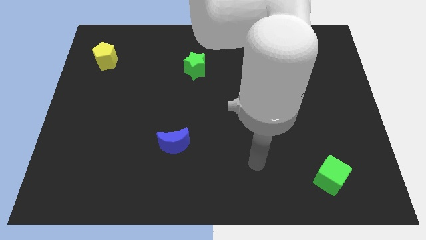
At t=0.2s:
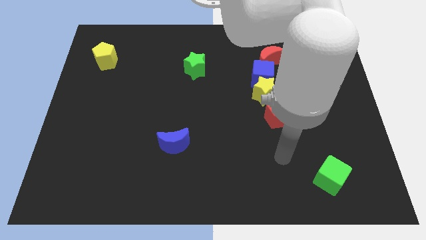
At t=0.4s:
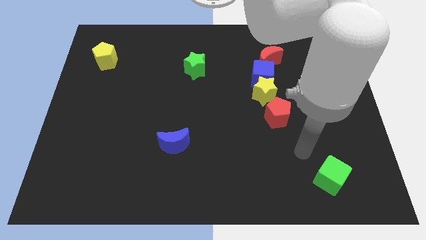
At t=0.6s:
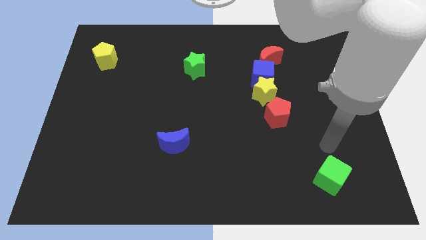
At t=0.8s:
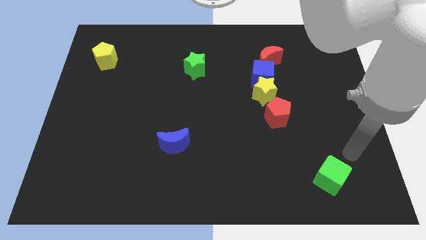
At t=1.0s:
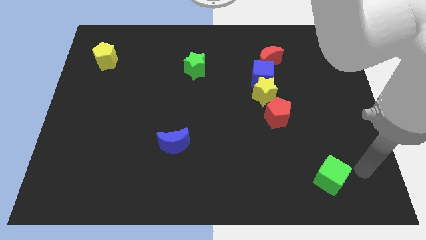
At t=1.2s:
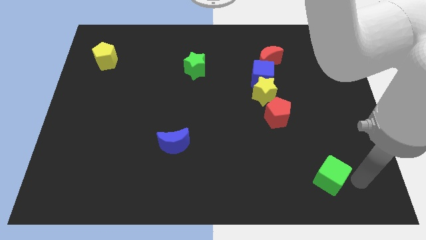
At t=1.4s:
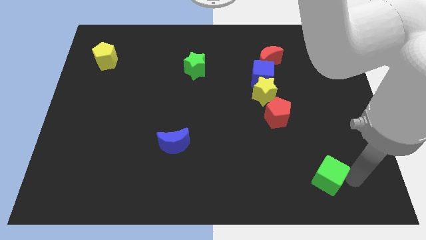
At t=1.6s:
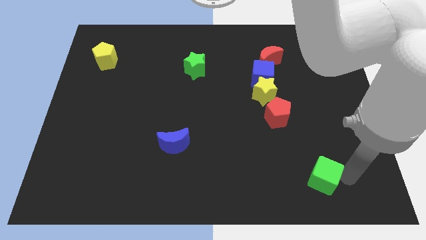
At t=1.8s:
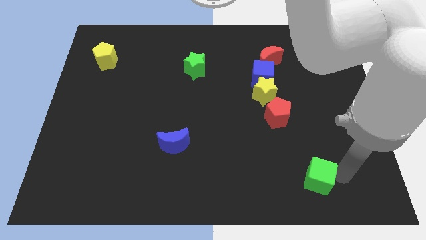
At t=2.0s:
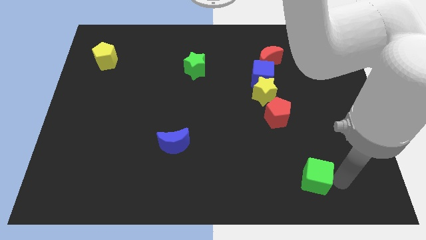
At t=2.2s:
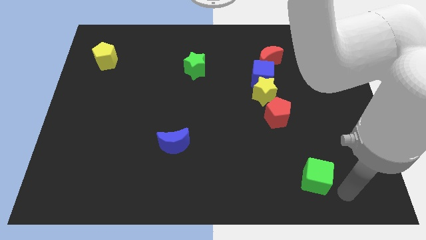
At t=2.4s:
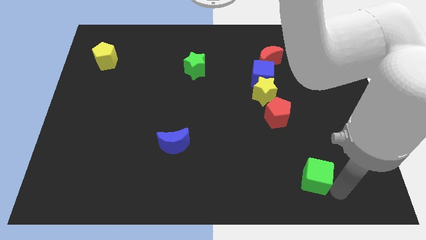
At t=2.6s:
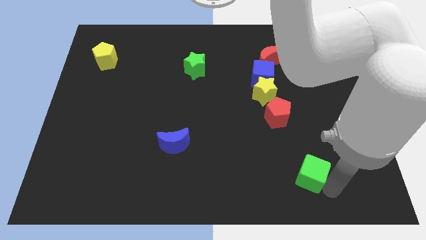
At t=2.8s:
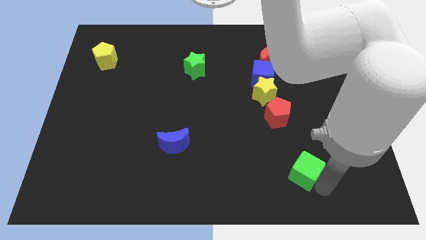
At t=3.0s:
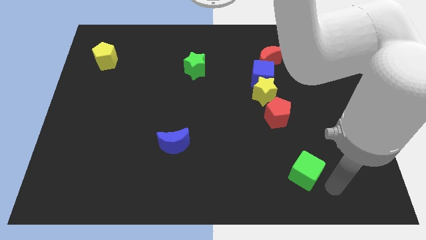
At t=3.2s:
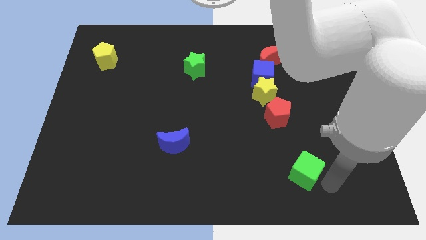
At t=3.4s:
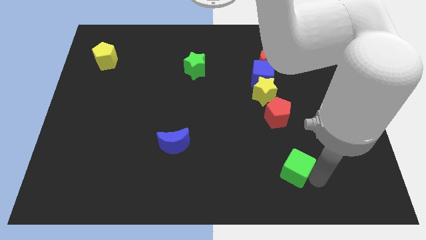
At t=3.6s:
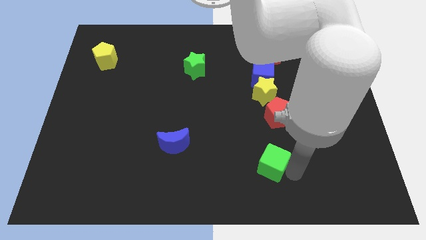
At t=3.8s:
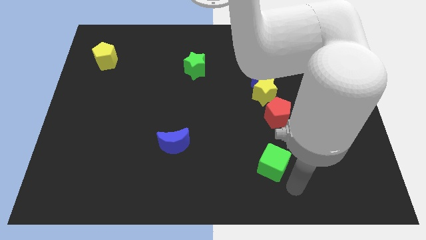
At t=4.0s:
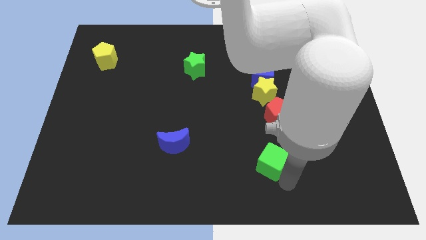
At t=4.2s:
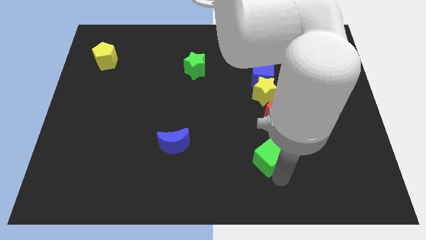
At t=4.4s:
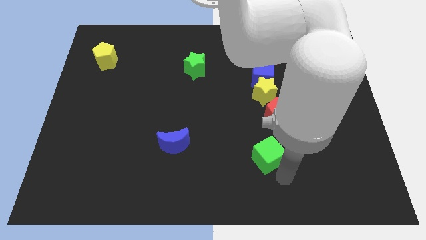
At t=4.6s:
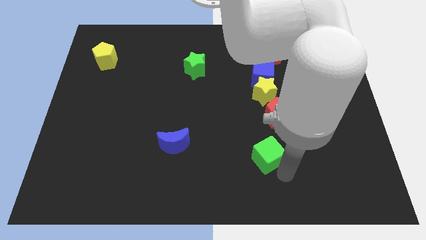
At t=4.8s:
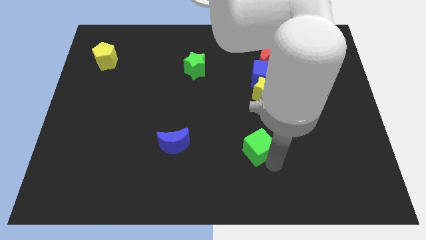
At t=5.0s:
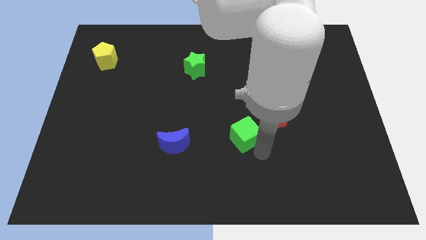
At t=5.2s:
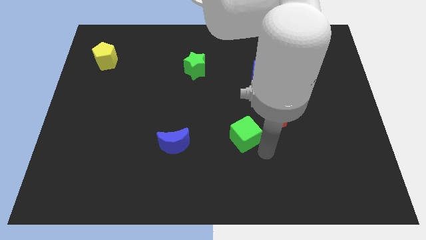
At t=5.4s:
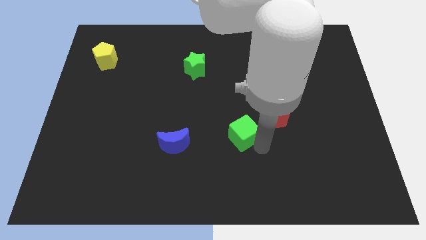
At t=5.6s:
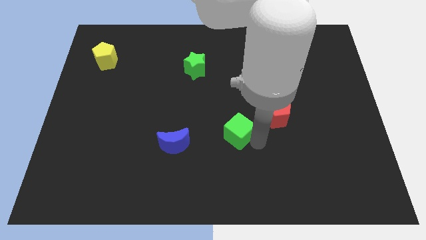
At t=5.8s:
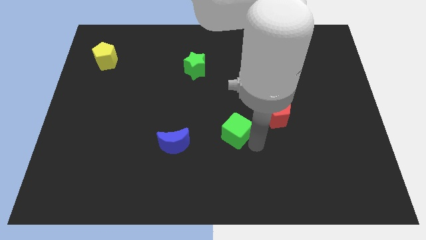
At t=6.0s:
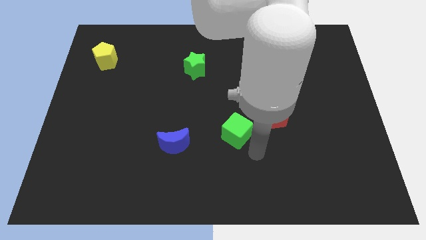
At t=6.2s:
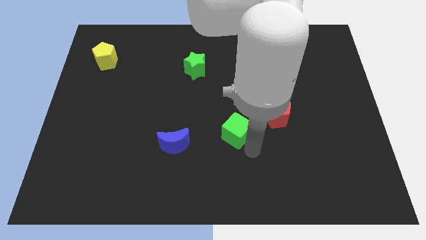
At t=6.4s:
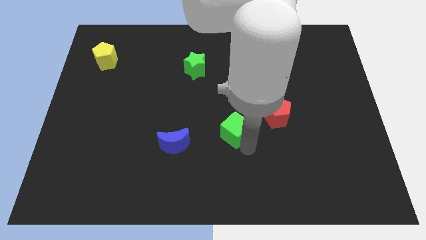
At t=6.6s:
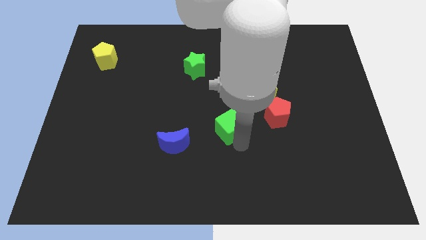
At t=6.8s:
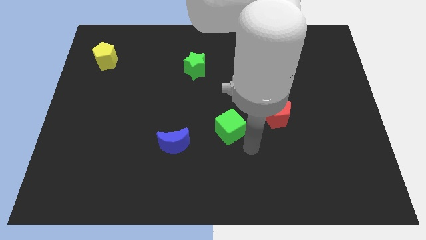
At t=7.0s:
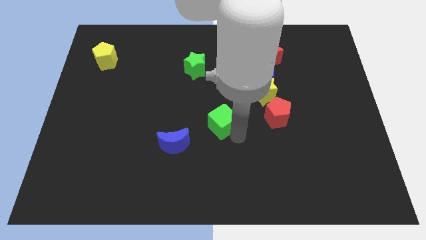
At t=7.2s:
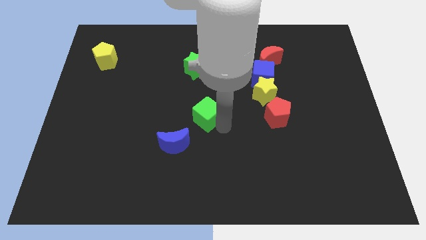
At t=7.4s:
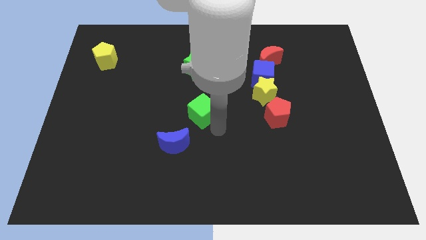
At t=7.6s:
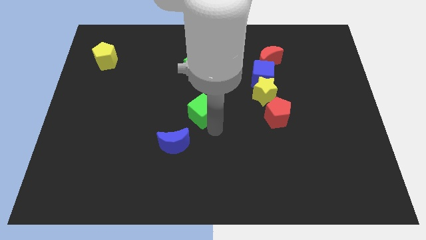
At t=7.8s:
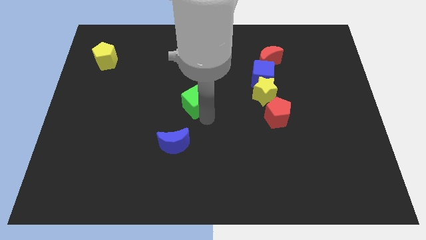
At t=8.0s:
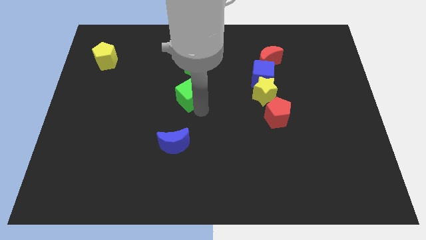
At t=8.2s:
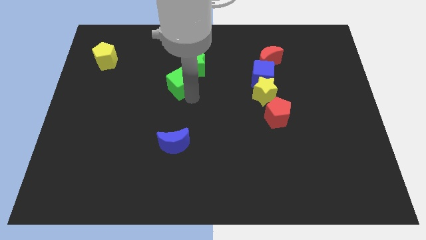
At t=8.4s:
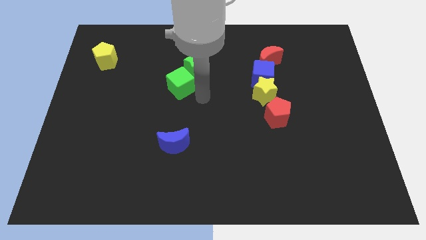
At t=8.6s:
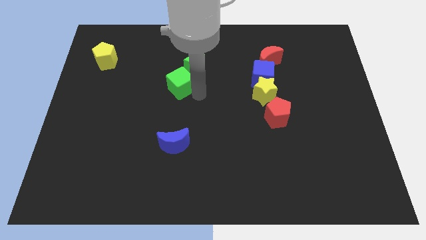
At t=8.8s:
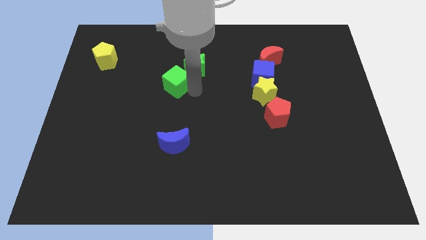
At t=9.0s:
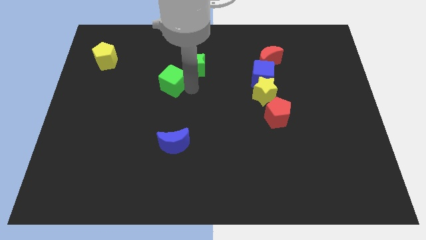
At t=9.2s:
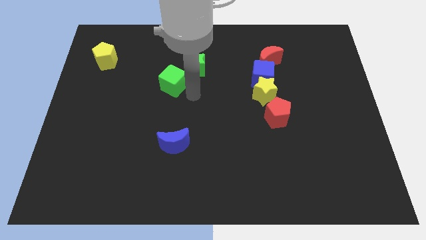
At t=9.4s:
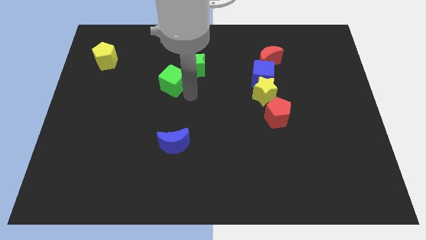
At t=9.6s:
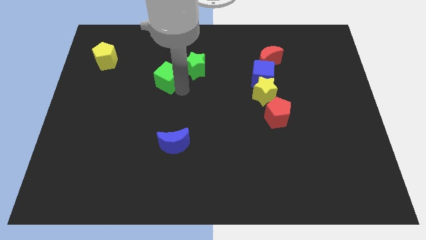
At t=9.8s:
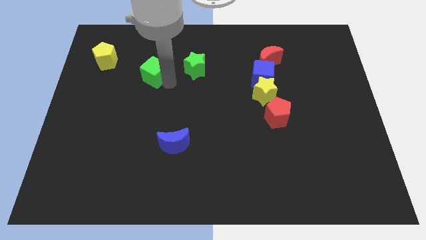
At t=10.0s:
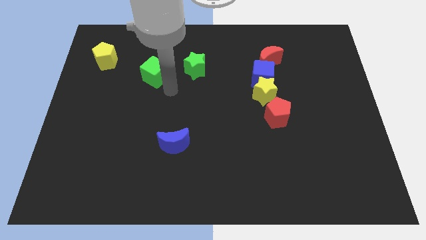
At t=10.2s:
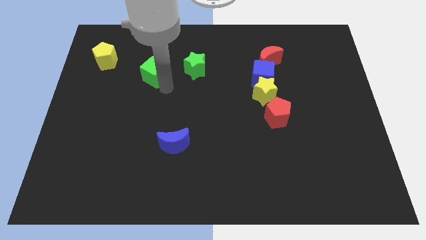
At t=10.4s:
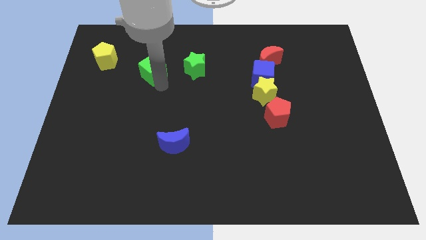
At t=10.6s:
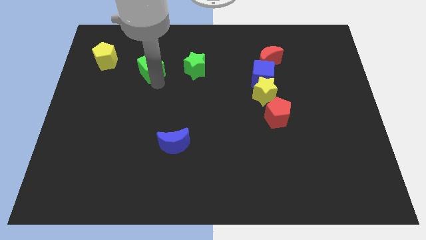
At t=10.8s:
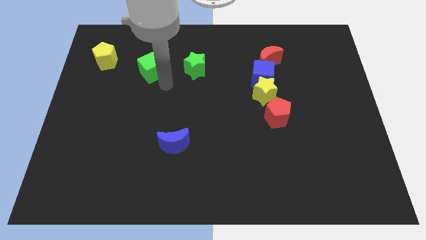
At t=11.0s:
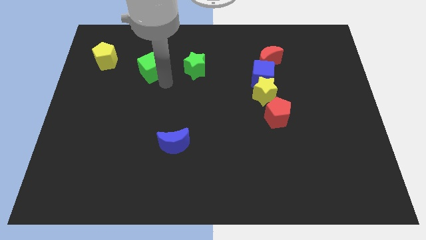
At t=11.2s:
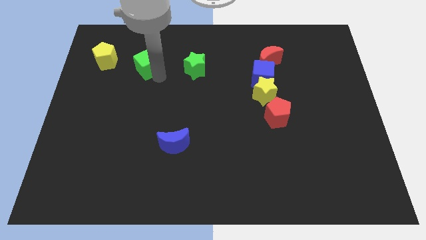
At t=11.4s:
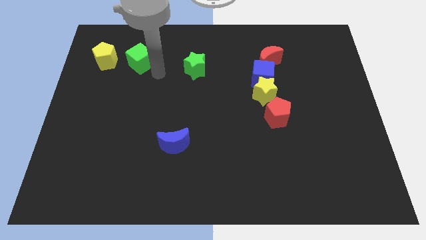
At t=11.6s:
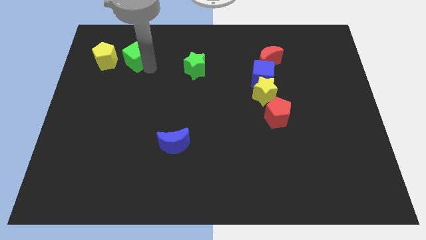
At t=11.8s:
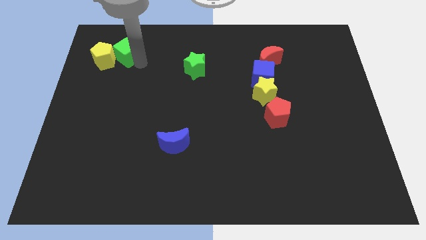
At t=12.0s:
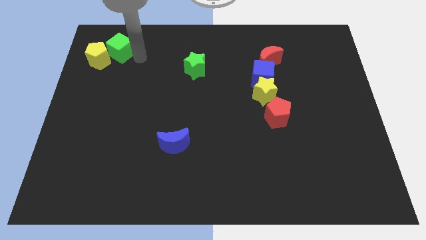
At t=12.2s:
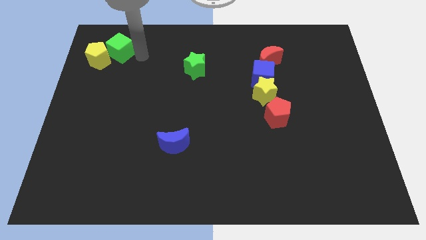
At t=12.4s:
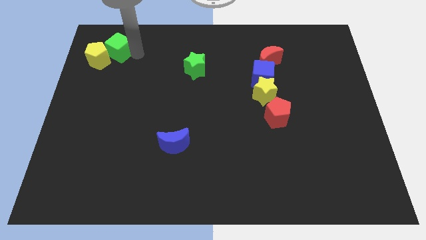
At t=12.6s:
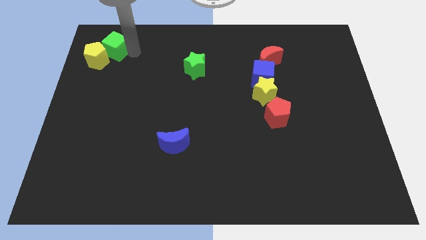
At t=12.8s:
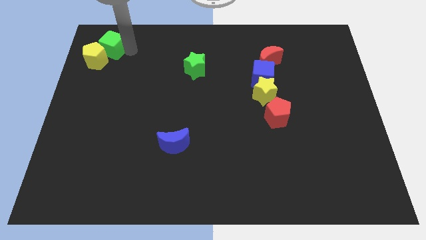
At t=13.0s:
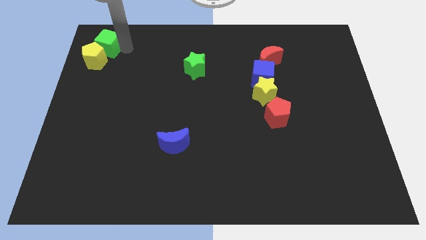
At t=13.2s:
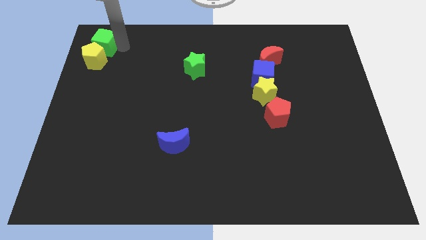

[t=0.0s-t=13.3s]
push the green cube to the top left corner

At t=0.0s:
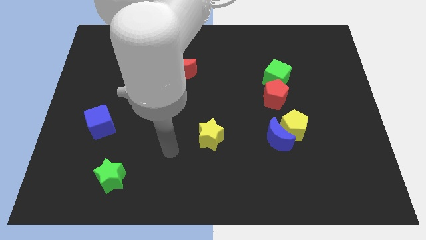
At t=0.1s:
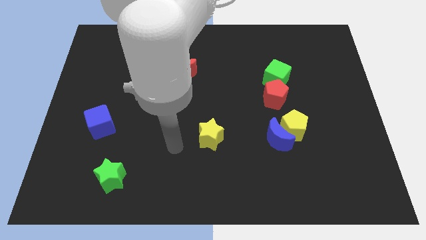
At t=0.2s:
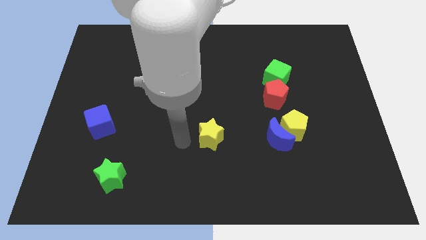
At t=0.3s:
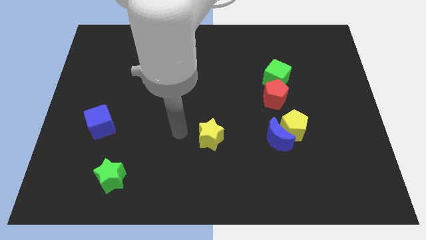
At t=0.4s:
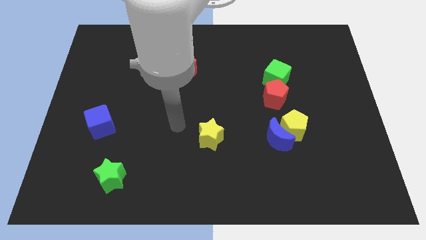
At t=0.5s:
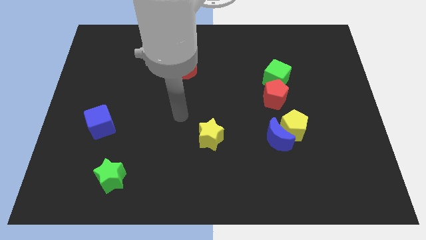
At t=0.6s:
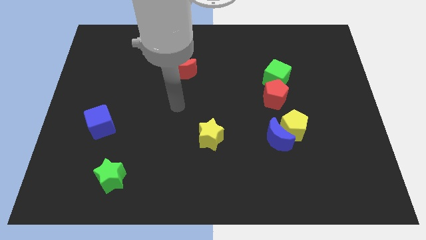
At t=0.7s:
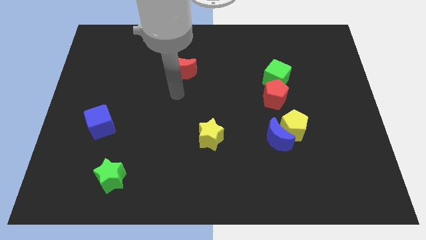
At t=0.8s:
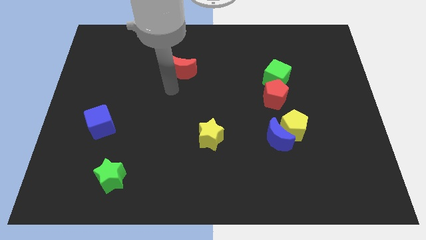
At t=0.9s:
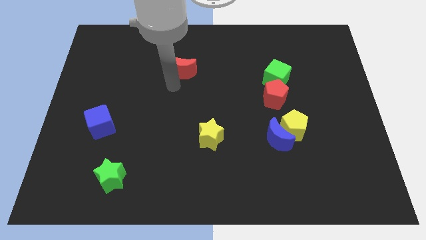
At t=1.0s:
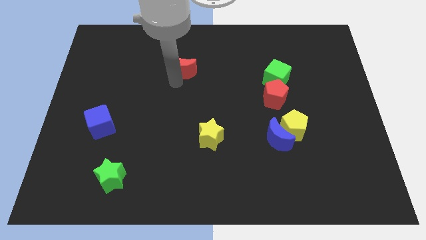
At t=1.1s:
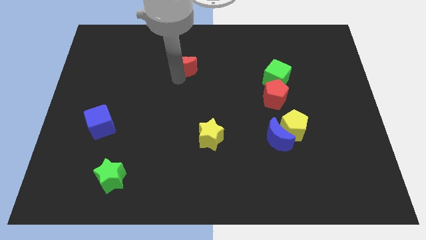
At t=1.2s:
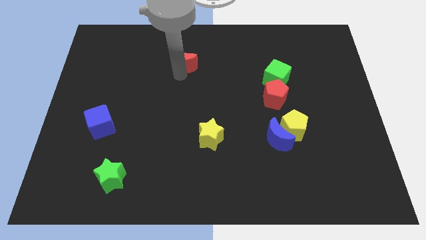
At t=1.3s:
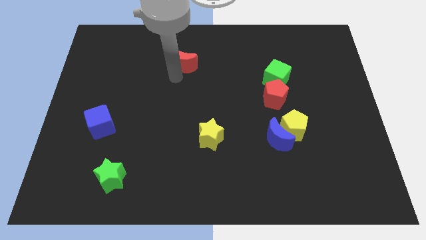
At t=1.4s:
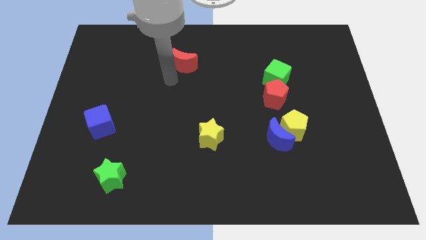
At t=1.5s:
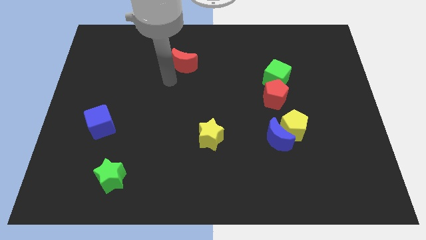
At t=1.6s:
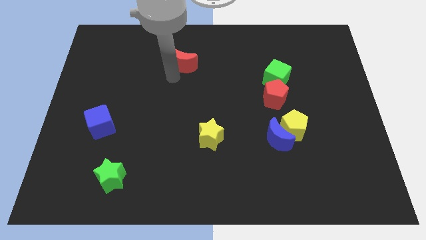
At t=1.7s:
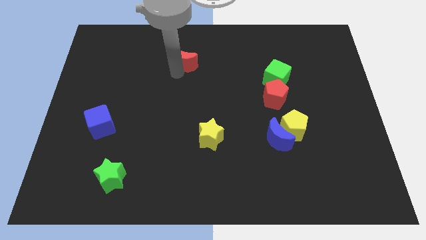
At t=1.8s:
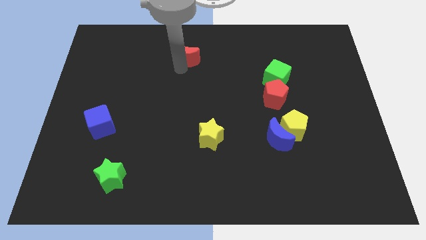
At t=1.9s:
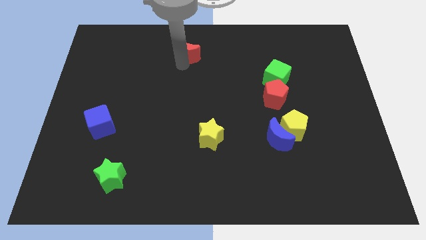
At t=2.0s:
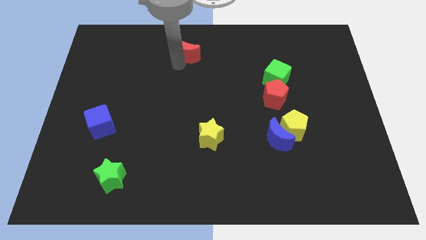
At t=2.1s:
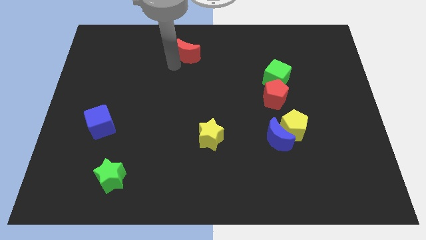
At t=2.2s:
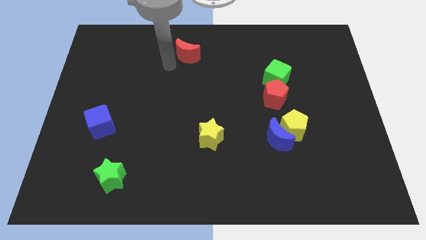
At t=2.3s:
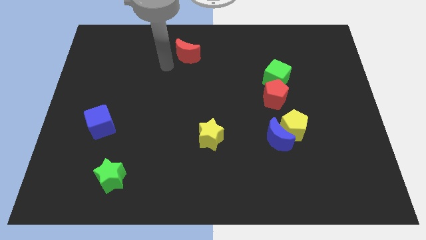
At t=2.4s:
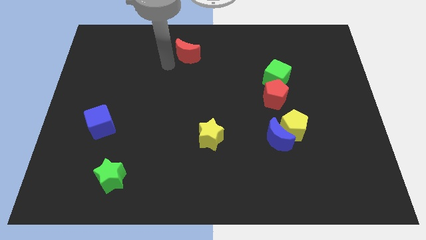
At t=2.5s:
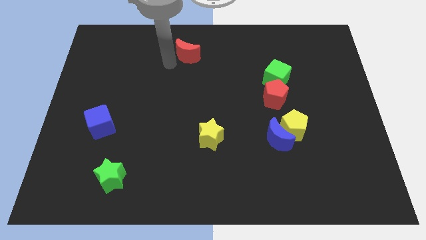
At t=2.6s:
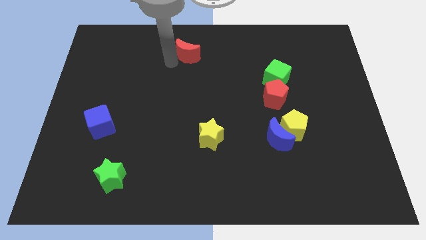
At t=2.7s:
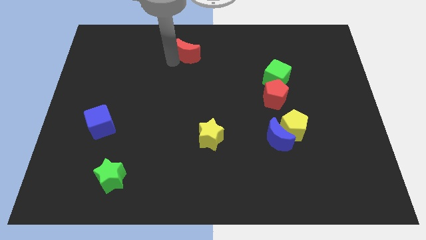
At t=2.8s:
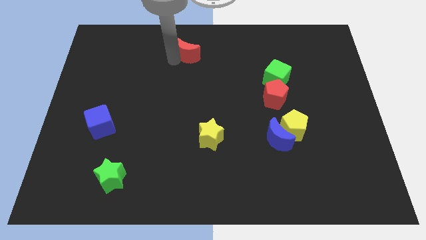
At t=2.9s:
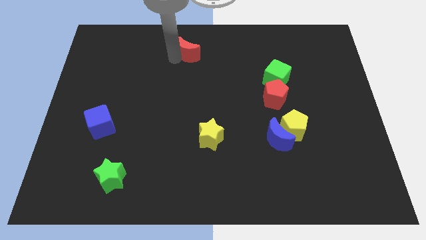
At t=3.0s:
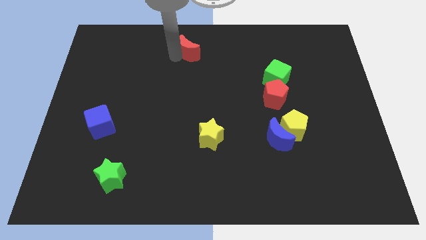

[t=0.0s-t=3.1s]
slide the red moon to the towards your base
